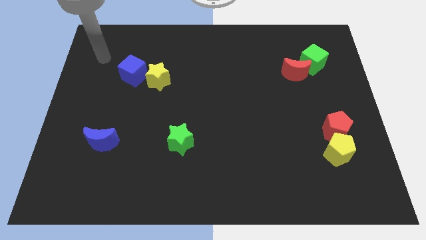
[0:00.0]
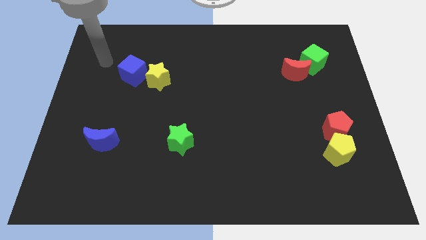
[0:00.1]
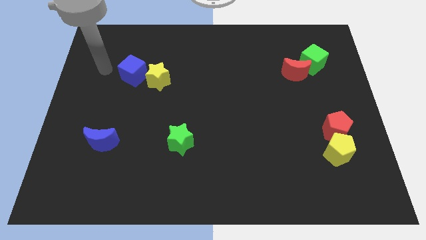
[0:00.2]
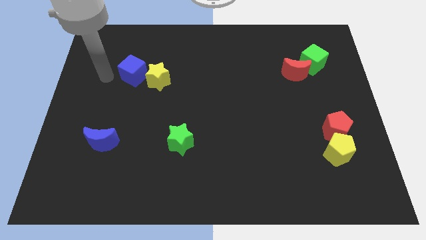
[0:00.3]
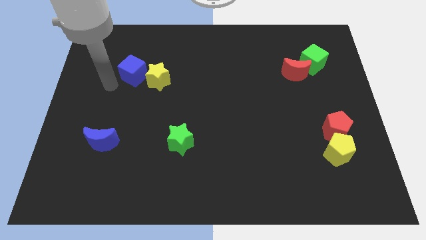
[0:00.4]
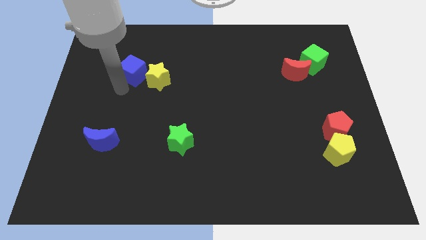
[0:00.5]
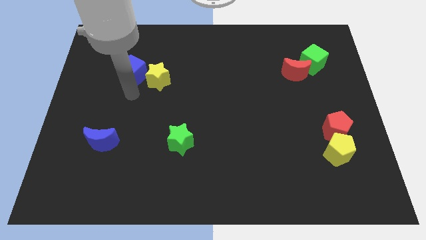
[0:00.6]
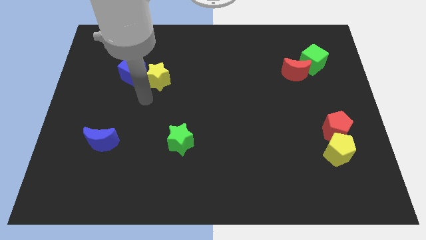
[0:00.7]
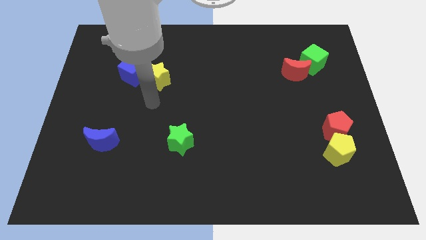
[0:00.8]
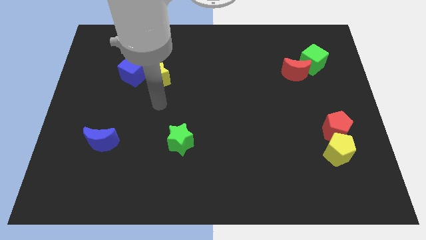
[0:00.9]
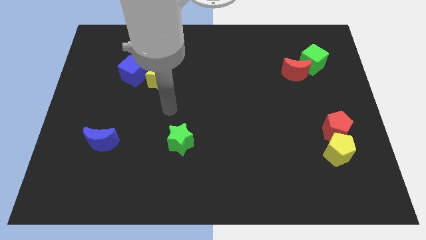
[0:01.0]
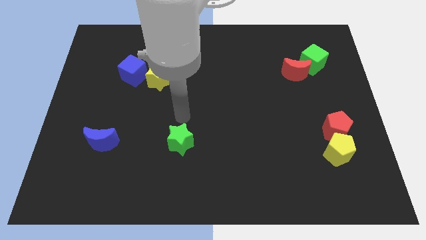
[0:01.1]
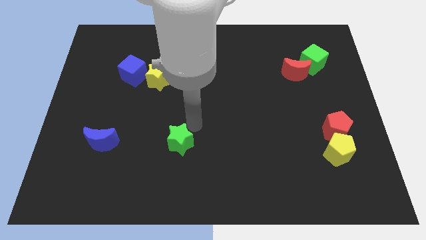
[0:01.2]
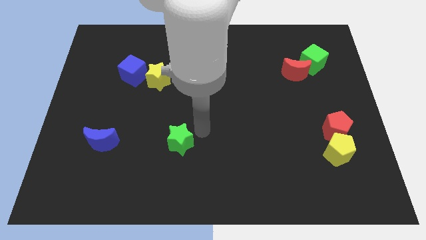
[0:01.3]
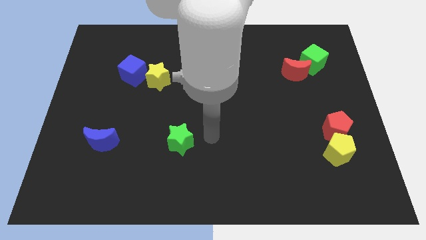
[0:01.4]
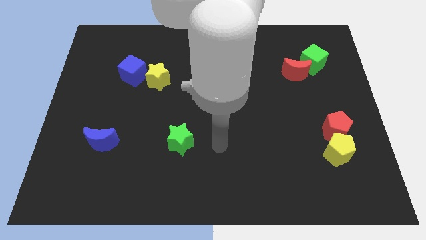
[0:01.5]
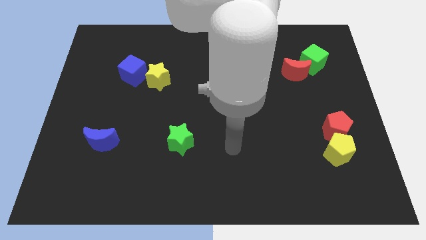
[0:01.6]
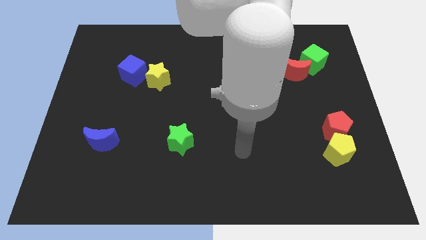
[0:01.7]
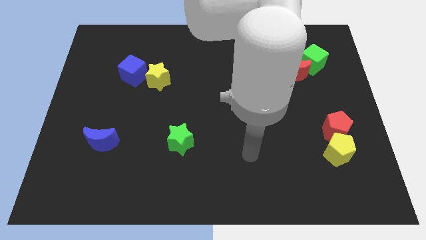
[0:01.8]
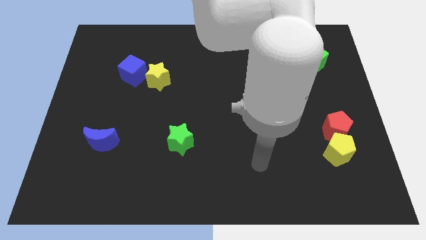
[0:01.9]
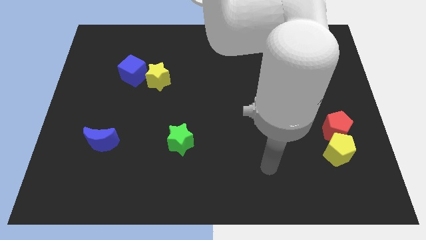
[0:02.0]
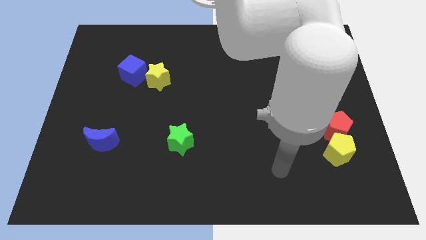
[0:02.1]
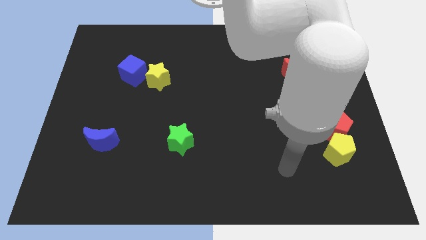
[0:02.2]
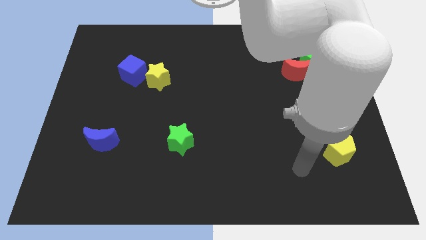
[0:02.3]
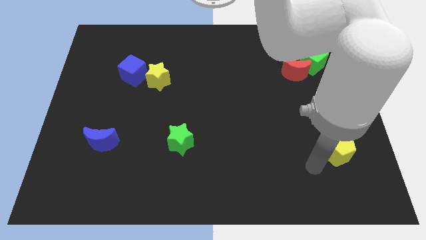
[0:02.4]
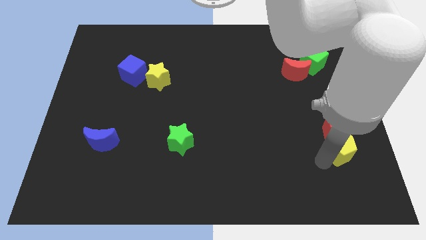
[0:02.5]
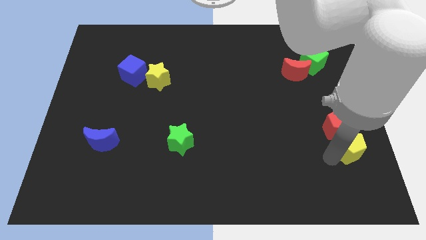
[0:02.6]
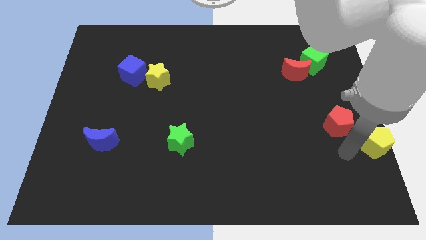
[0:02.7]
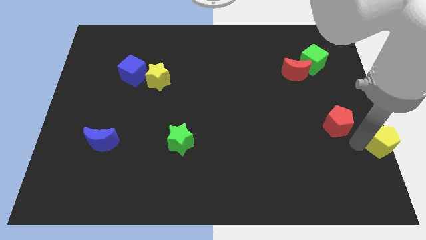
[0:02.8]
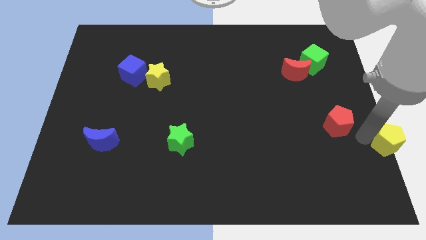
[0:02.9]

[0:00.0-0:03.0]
pull the red pentagon apart from the yellow pentagon

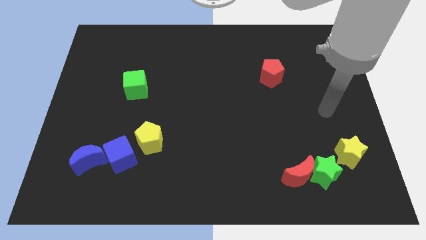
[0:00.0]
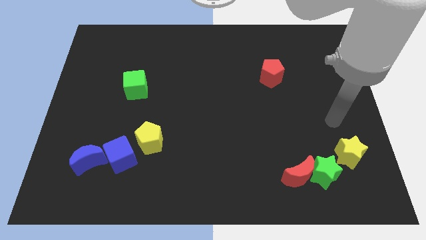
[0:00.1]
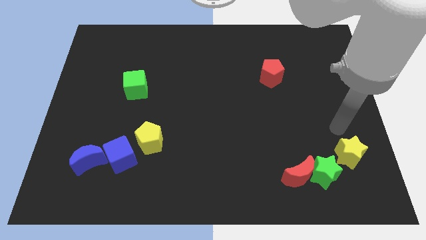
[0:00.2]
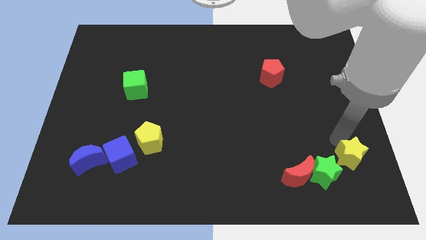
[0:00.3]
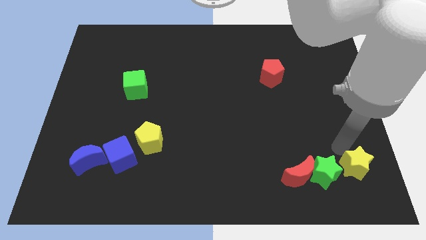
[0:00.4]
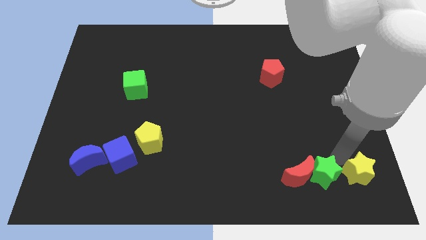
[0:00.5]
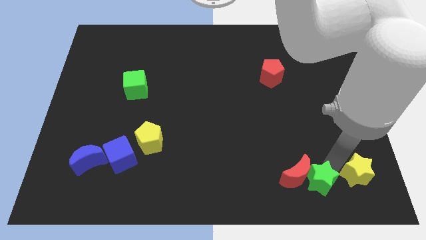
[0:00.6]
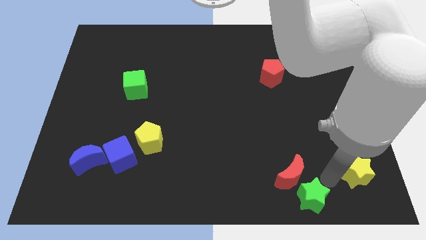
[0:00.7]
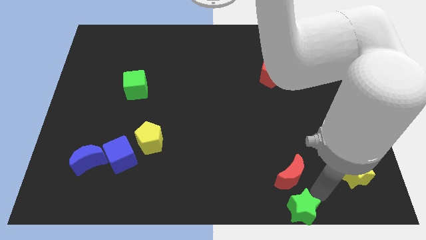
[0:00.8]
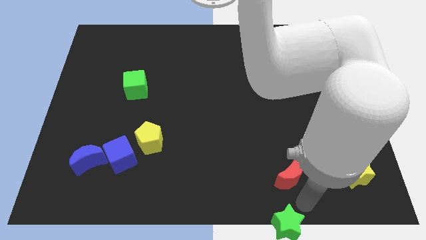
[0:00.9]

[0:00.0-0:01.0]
separate the red moon from the green star

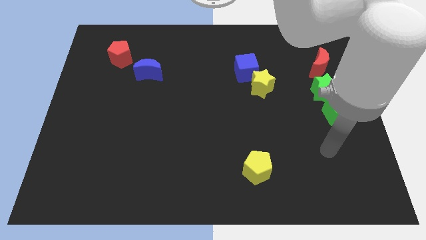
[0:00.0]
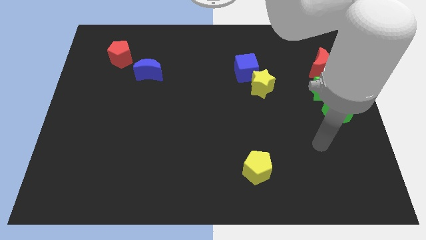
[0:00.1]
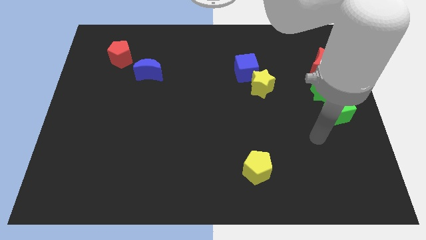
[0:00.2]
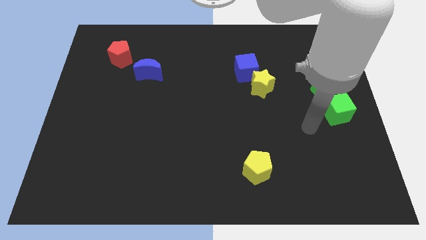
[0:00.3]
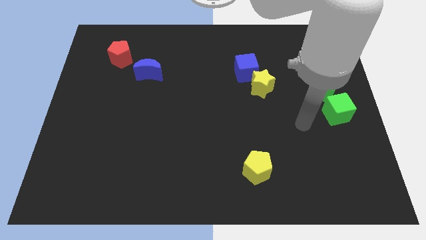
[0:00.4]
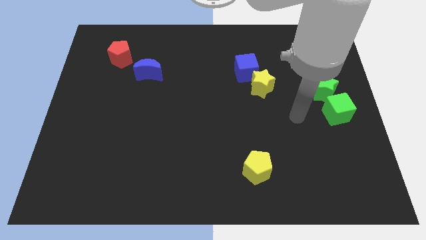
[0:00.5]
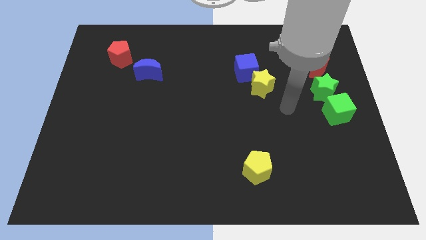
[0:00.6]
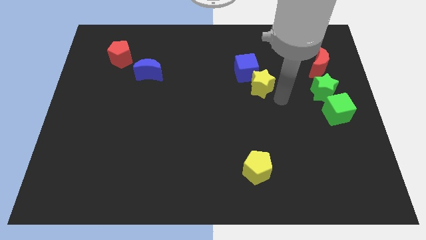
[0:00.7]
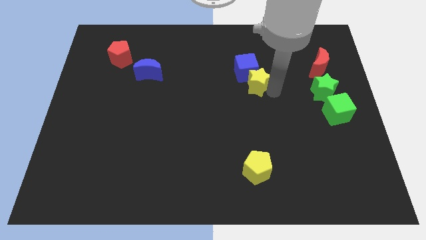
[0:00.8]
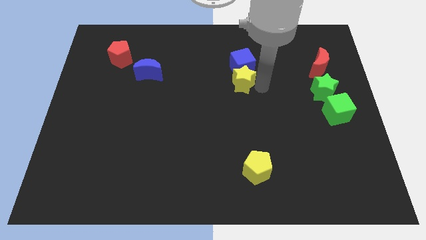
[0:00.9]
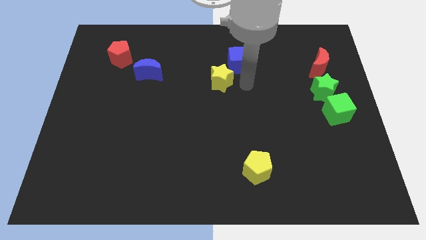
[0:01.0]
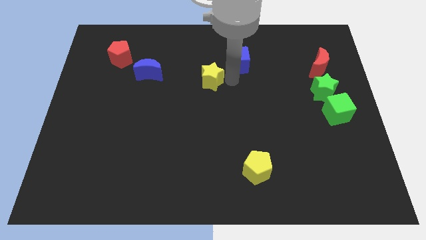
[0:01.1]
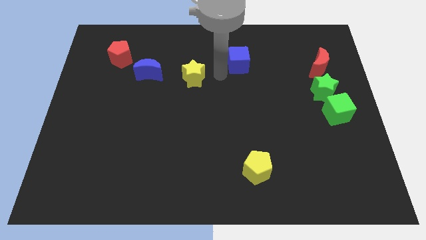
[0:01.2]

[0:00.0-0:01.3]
move the blue cube away from the yellow star

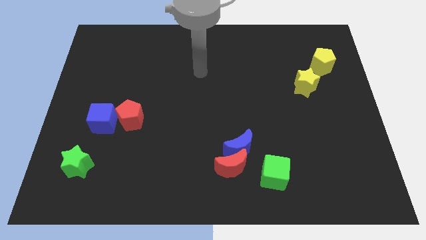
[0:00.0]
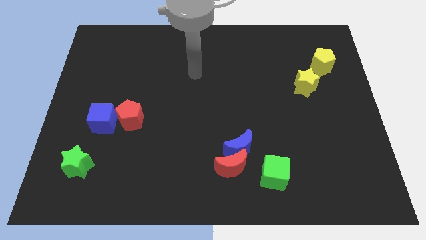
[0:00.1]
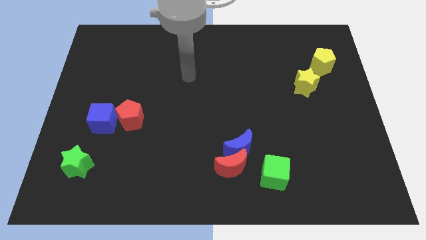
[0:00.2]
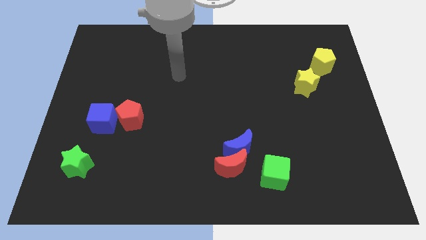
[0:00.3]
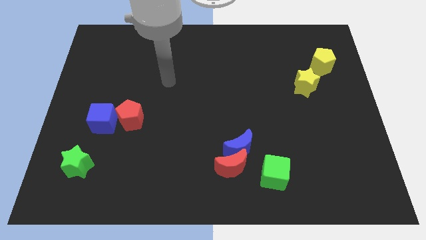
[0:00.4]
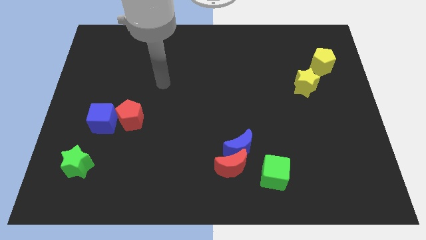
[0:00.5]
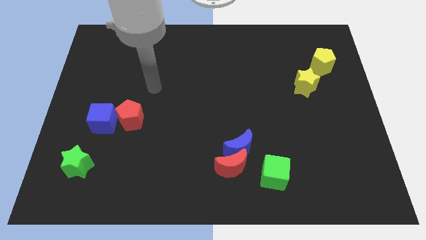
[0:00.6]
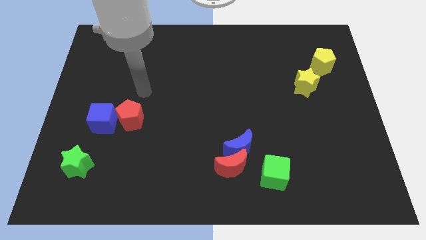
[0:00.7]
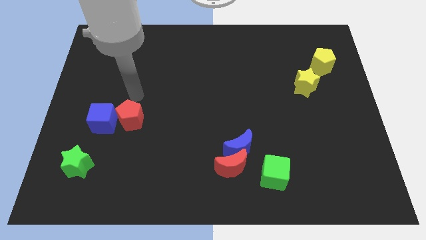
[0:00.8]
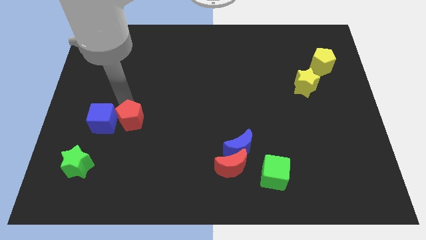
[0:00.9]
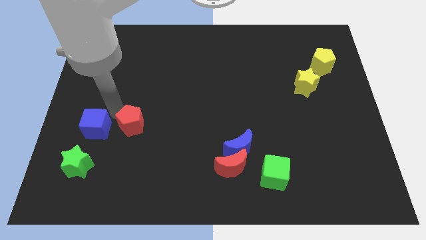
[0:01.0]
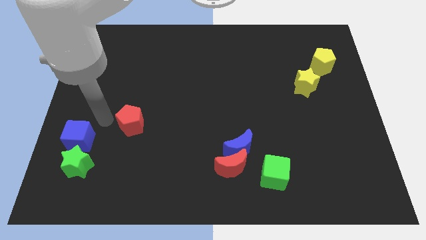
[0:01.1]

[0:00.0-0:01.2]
move the red pentagon away from the blue cube

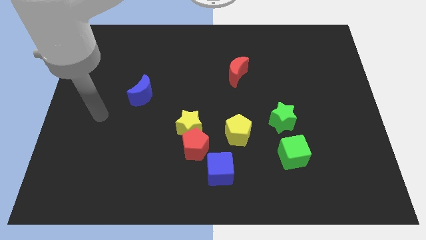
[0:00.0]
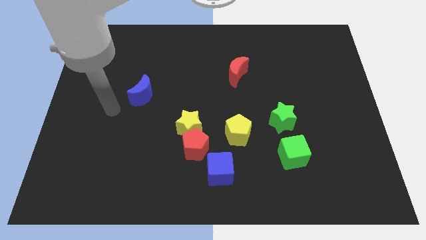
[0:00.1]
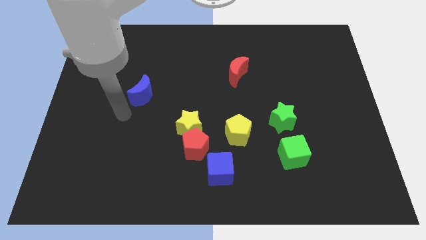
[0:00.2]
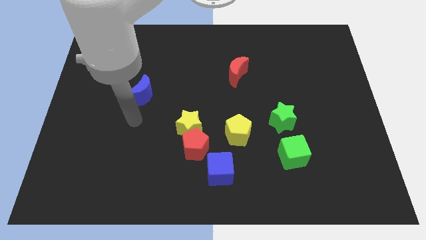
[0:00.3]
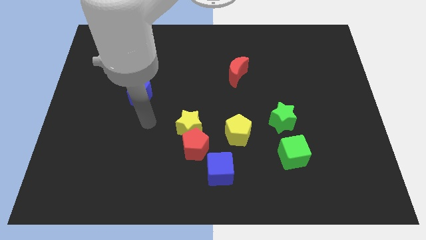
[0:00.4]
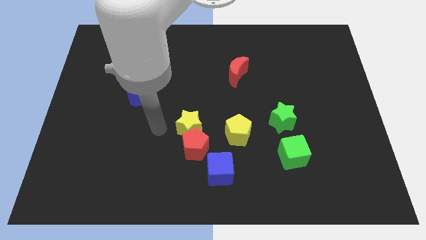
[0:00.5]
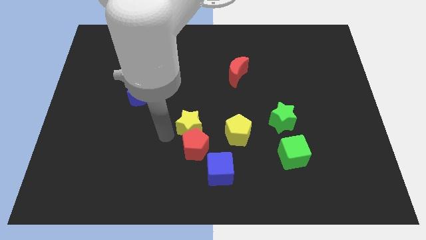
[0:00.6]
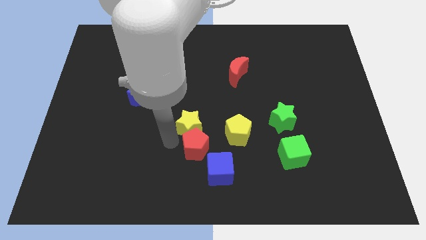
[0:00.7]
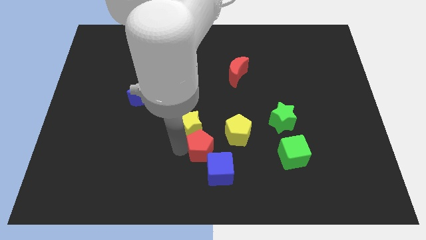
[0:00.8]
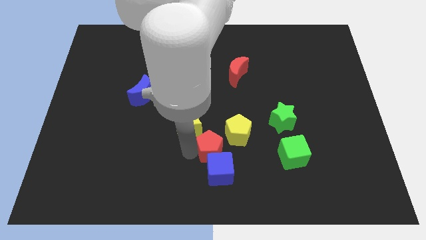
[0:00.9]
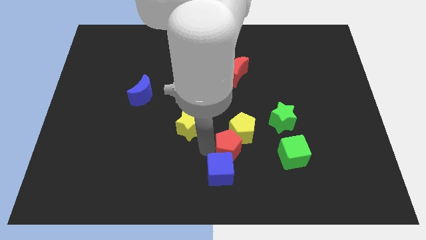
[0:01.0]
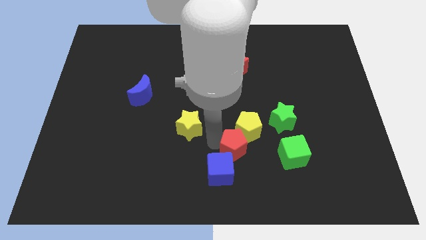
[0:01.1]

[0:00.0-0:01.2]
pull the yellow star apart from the red pentagon

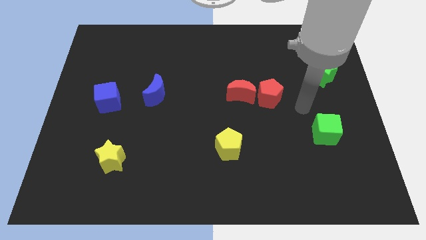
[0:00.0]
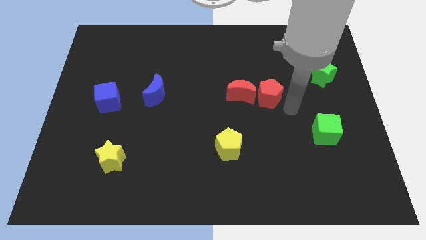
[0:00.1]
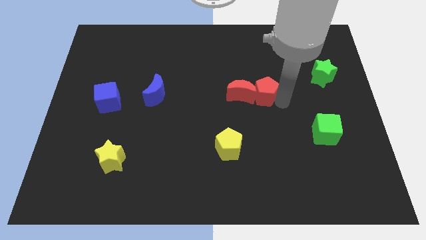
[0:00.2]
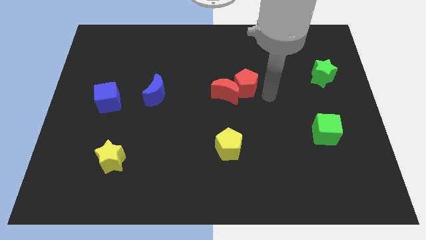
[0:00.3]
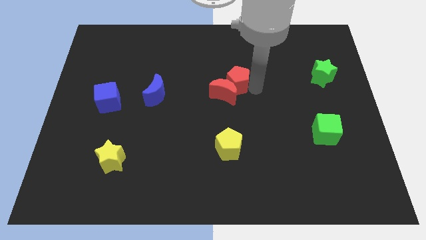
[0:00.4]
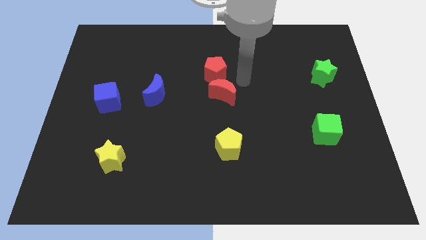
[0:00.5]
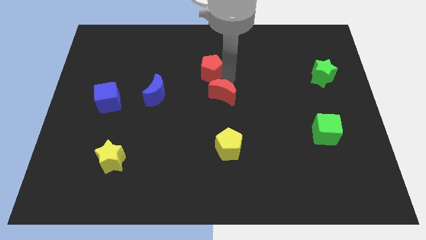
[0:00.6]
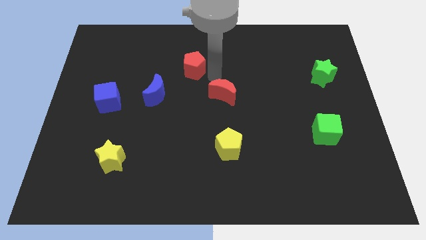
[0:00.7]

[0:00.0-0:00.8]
move the red moon away from the red pentagon

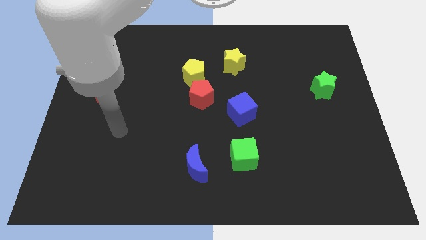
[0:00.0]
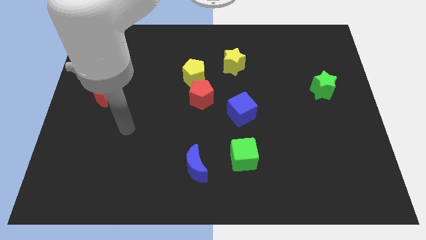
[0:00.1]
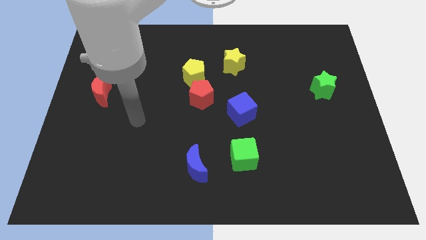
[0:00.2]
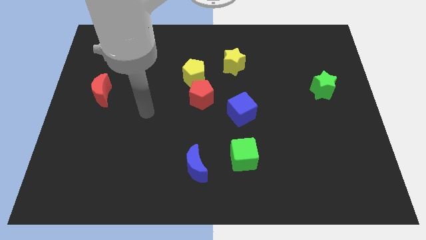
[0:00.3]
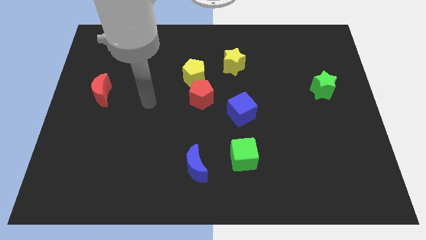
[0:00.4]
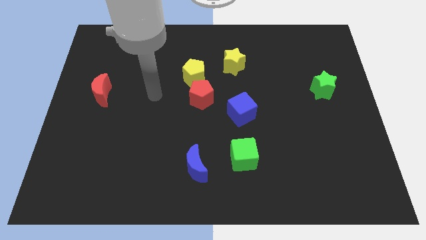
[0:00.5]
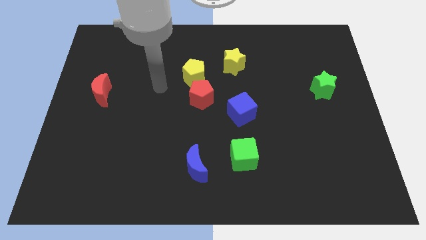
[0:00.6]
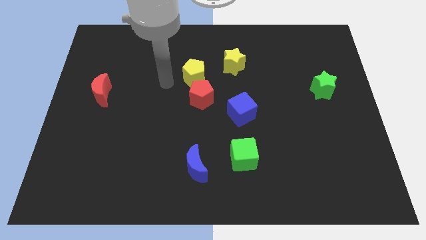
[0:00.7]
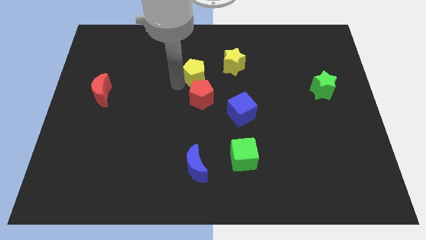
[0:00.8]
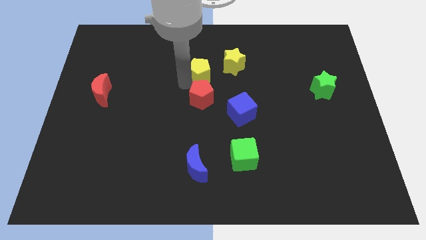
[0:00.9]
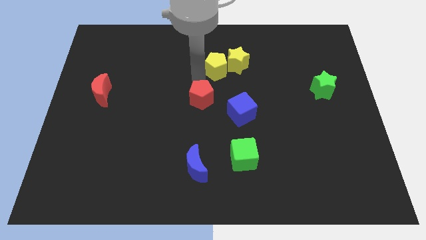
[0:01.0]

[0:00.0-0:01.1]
move the red pentagon away from the yellow pentagon
